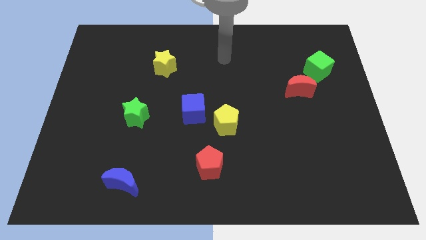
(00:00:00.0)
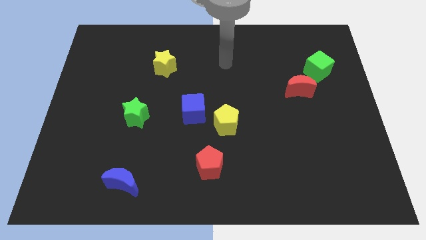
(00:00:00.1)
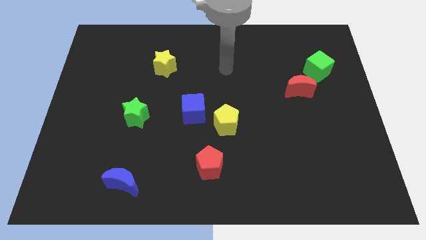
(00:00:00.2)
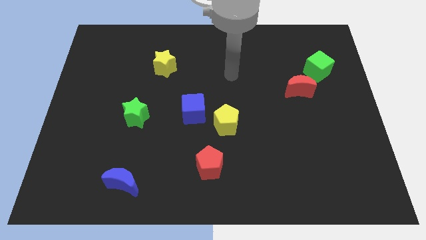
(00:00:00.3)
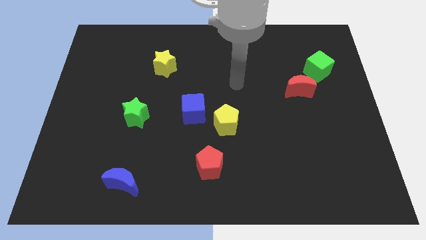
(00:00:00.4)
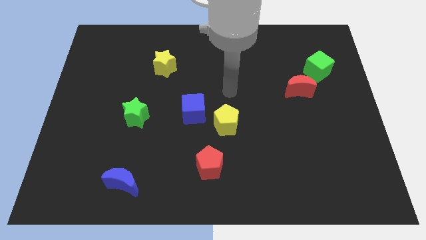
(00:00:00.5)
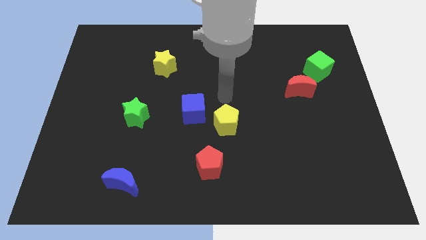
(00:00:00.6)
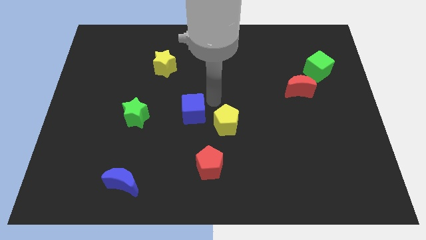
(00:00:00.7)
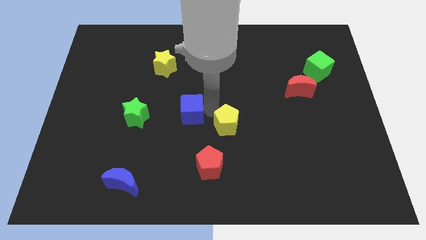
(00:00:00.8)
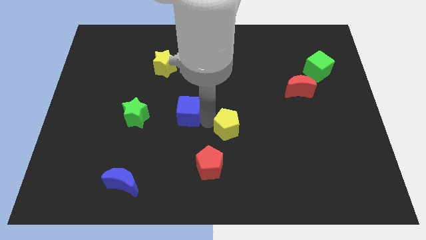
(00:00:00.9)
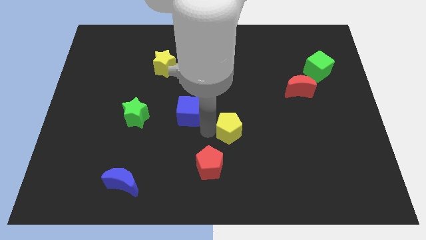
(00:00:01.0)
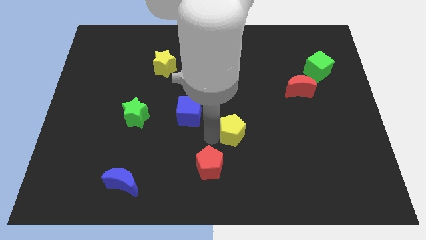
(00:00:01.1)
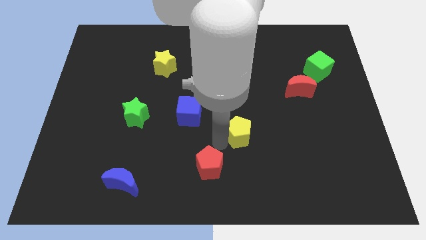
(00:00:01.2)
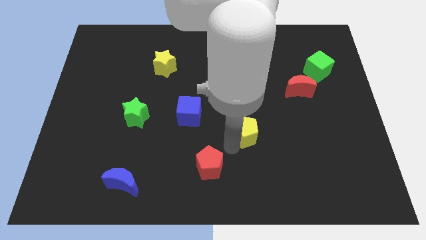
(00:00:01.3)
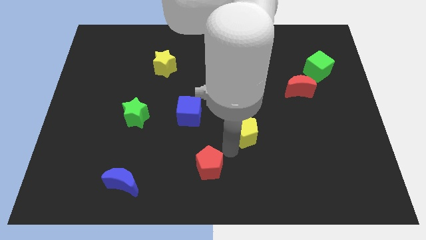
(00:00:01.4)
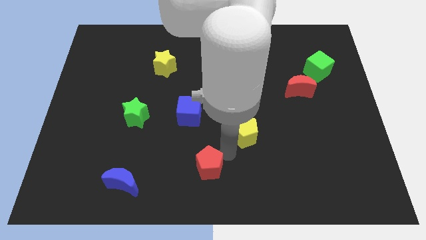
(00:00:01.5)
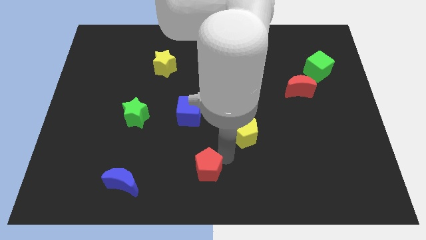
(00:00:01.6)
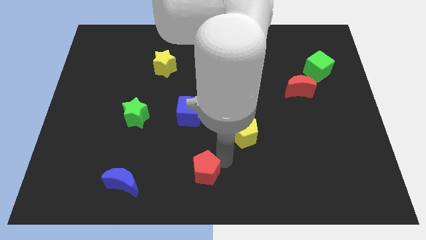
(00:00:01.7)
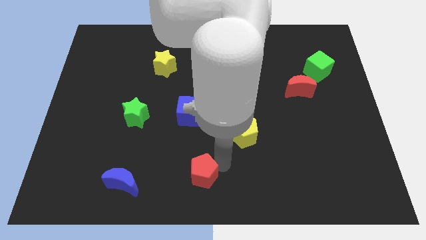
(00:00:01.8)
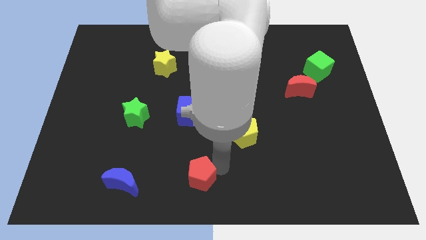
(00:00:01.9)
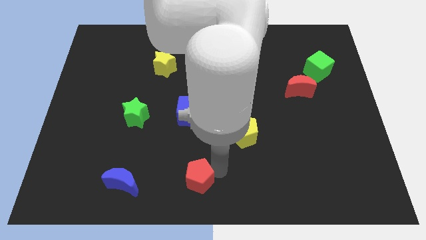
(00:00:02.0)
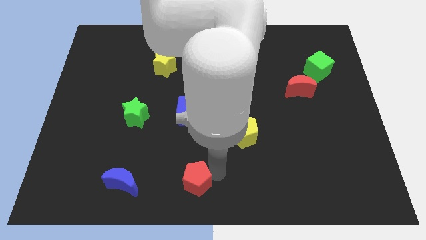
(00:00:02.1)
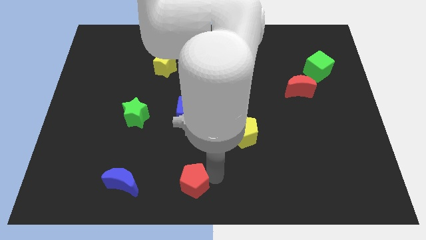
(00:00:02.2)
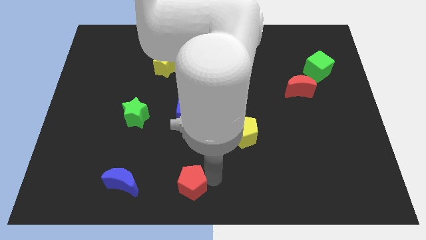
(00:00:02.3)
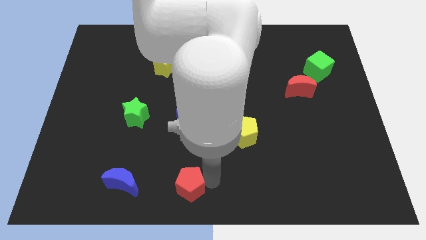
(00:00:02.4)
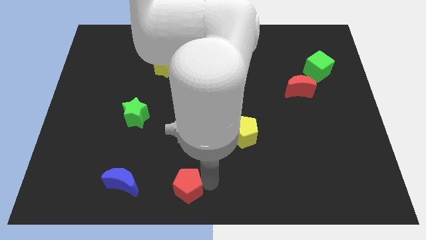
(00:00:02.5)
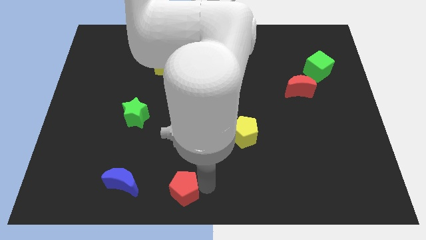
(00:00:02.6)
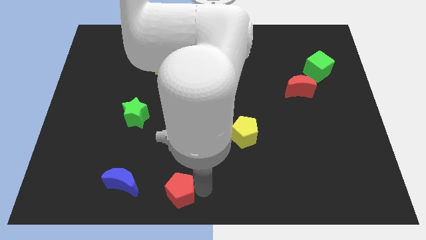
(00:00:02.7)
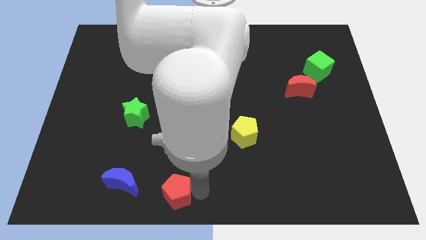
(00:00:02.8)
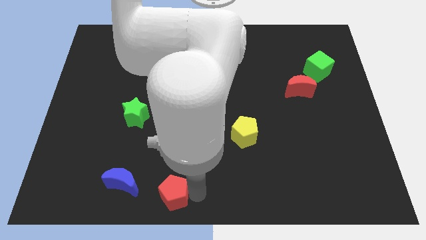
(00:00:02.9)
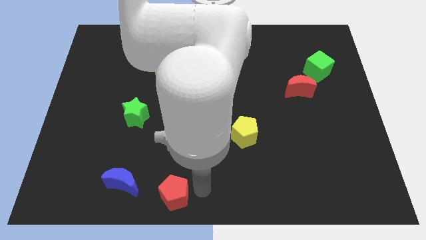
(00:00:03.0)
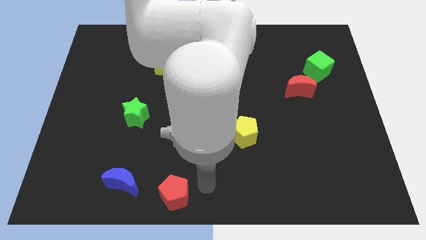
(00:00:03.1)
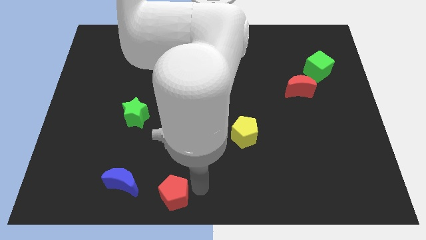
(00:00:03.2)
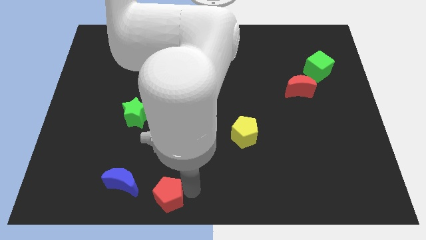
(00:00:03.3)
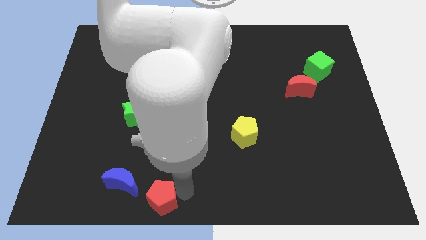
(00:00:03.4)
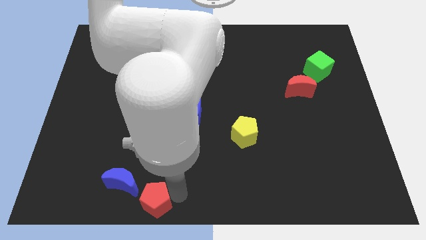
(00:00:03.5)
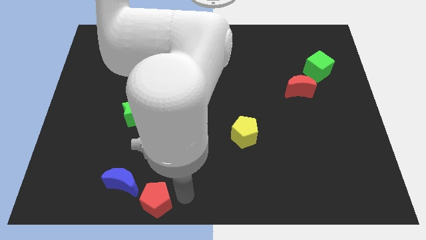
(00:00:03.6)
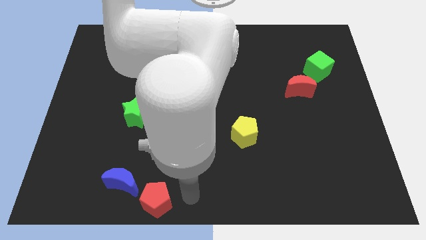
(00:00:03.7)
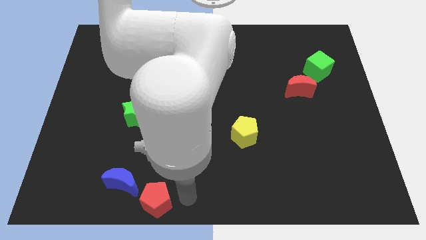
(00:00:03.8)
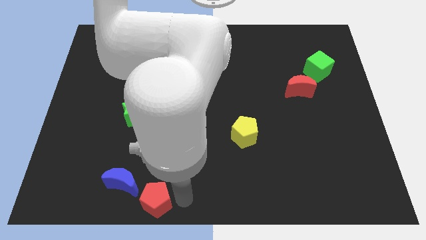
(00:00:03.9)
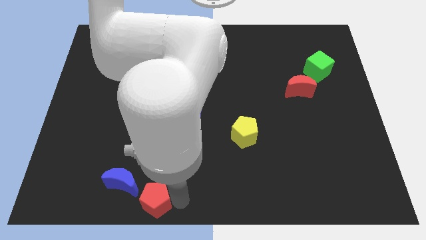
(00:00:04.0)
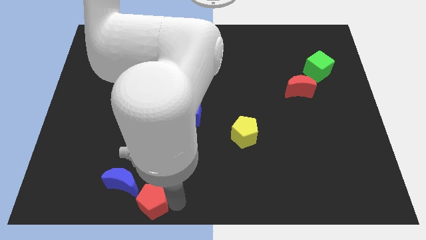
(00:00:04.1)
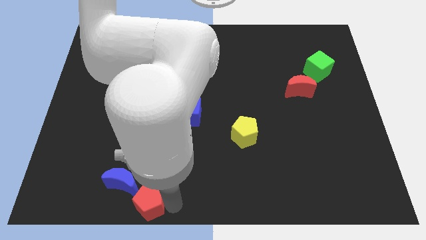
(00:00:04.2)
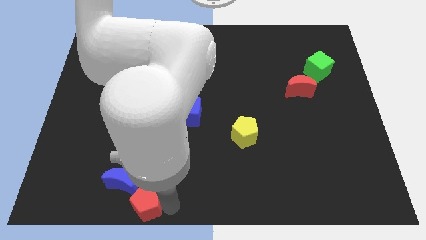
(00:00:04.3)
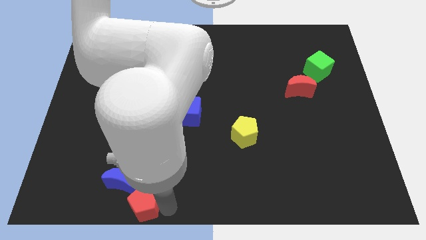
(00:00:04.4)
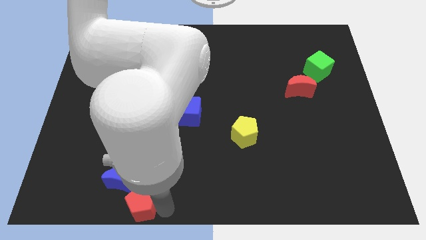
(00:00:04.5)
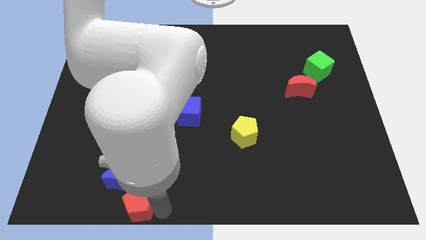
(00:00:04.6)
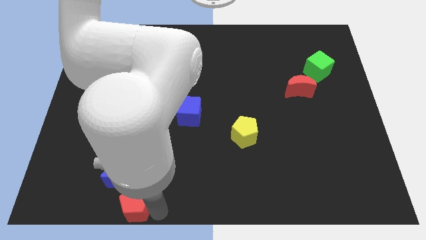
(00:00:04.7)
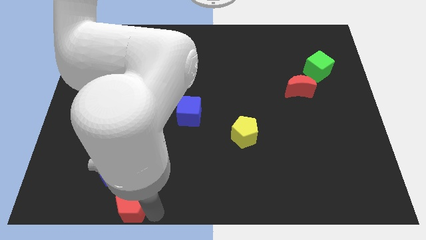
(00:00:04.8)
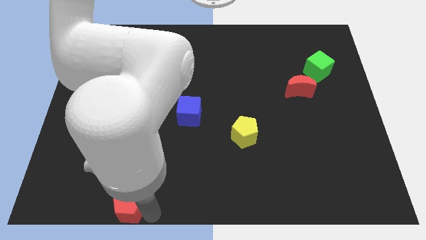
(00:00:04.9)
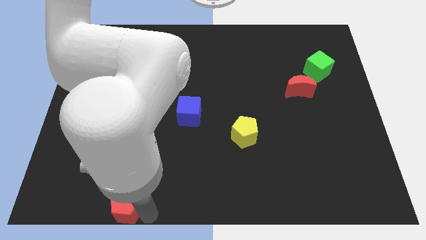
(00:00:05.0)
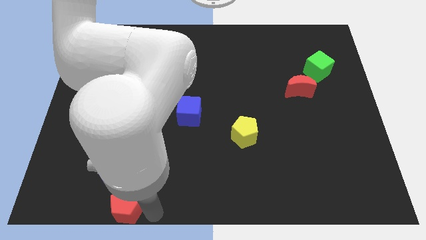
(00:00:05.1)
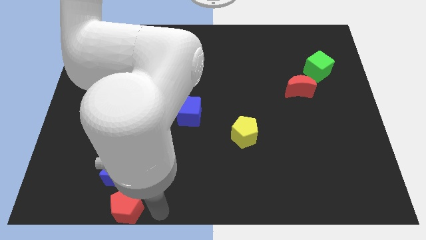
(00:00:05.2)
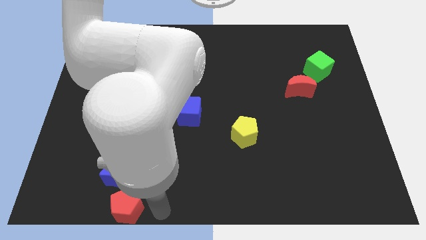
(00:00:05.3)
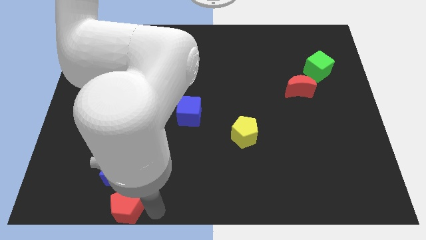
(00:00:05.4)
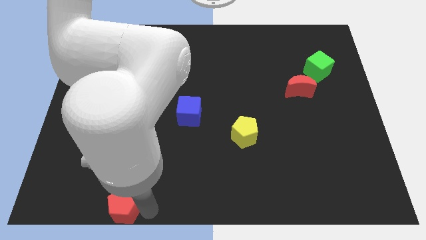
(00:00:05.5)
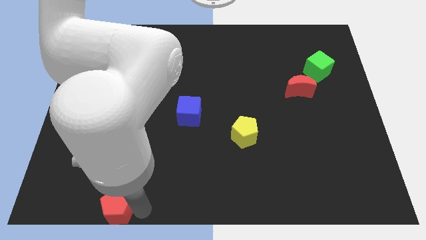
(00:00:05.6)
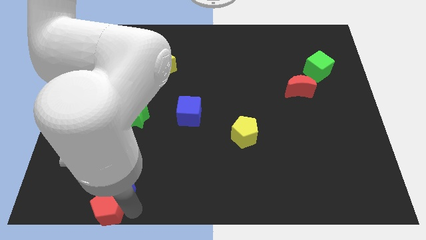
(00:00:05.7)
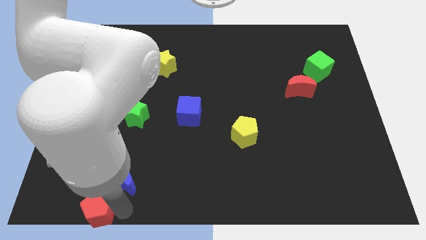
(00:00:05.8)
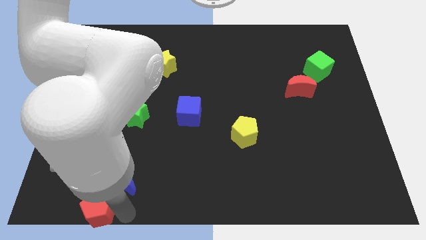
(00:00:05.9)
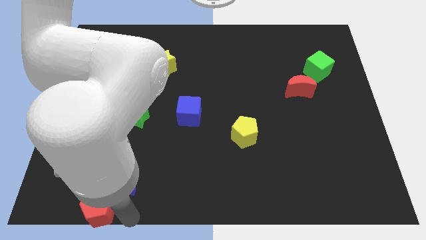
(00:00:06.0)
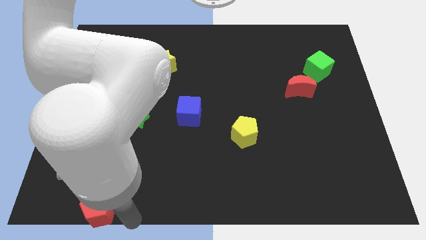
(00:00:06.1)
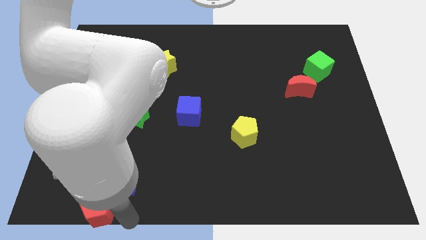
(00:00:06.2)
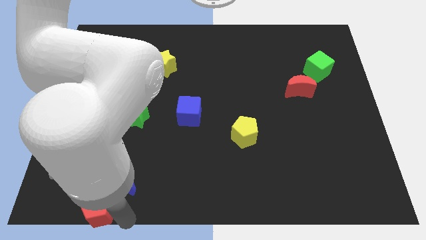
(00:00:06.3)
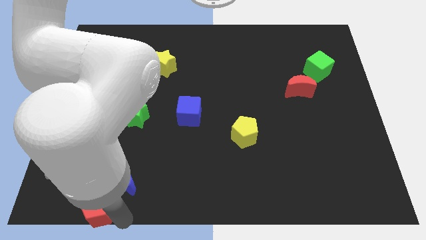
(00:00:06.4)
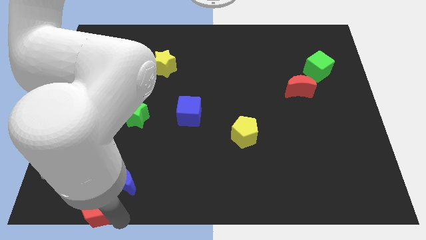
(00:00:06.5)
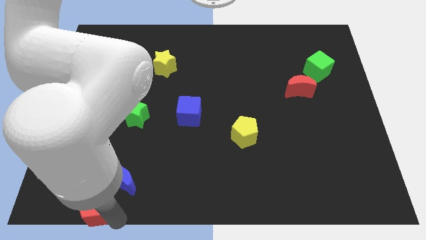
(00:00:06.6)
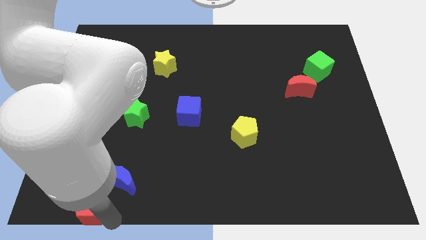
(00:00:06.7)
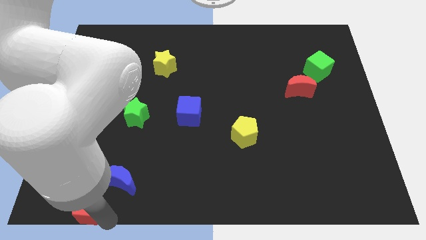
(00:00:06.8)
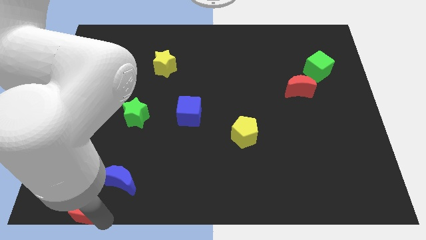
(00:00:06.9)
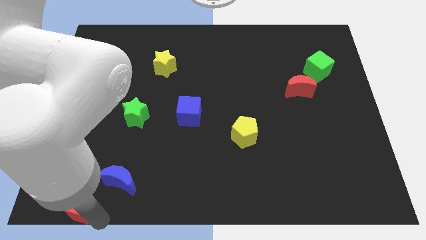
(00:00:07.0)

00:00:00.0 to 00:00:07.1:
put the red pentagon to the lower left corner
